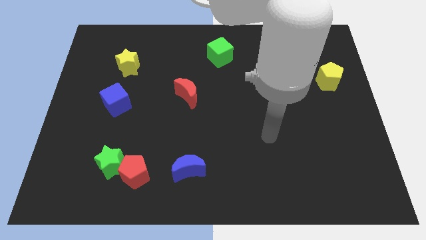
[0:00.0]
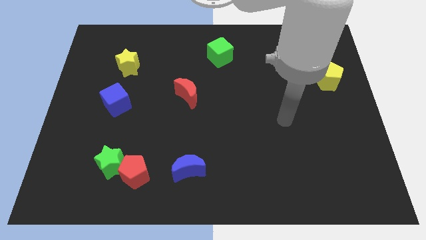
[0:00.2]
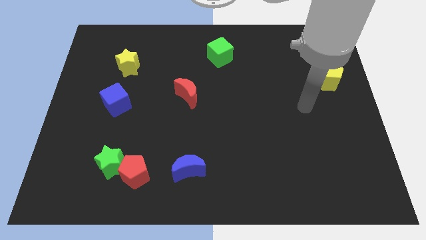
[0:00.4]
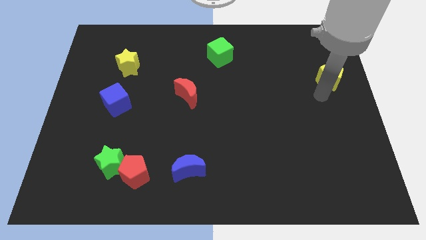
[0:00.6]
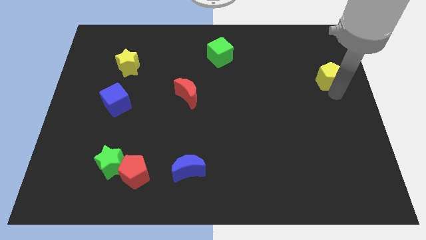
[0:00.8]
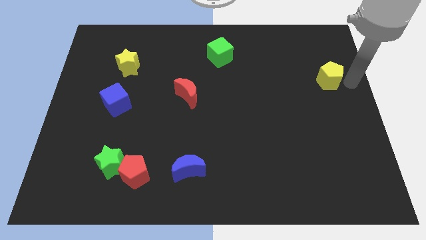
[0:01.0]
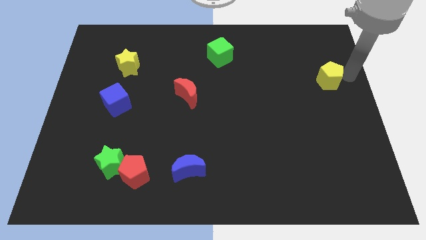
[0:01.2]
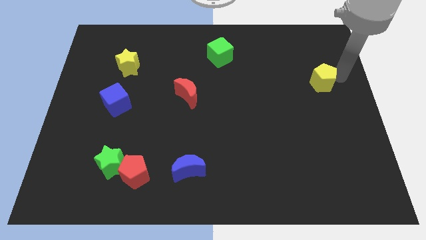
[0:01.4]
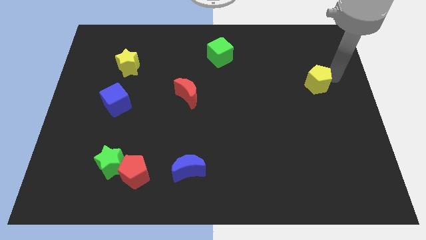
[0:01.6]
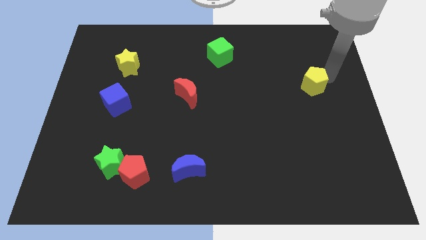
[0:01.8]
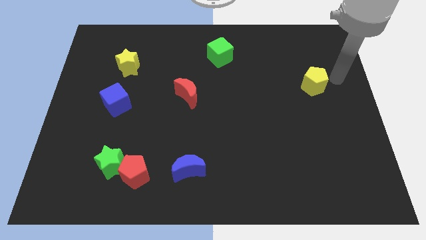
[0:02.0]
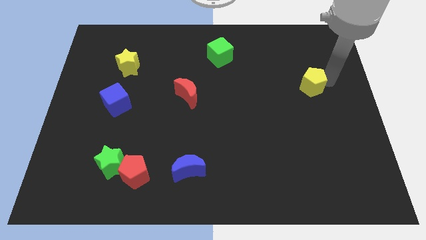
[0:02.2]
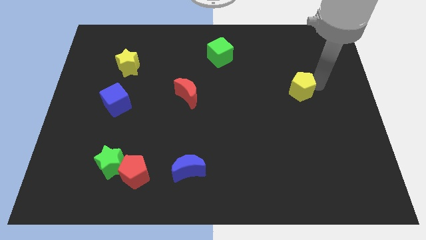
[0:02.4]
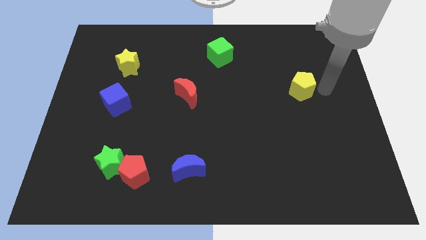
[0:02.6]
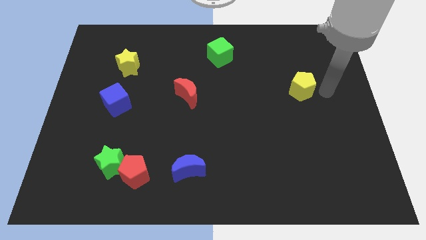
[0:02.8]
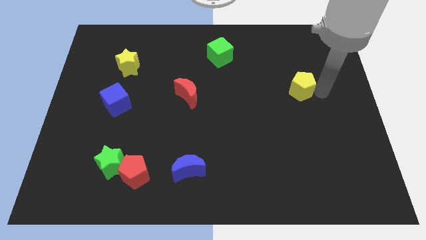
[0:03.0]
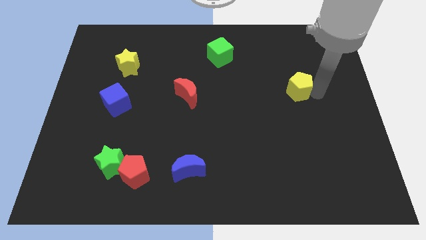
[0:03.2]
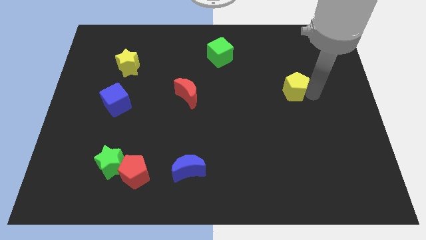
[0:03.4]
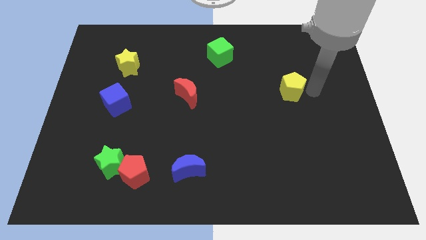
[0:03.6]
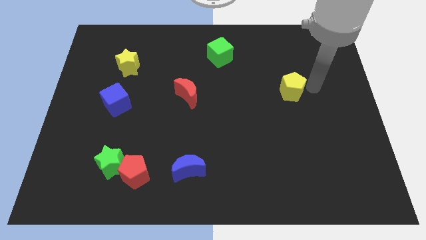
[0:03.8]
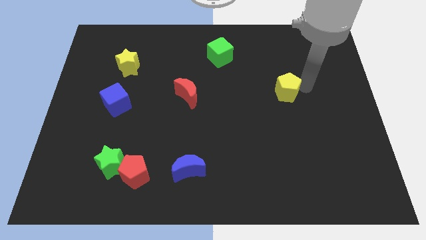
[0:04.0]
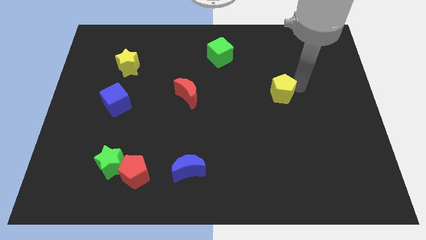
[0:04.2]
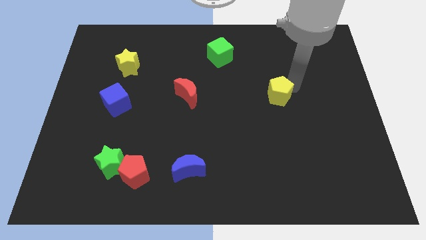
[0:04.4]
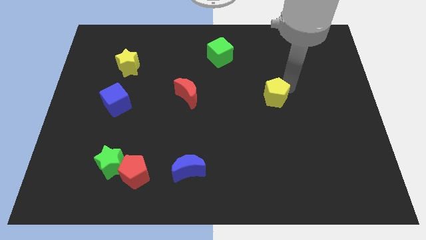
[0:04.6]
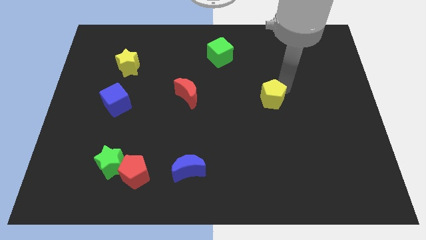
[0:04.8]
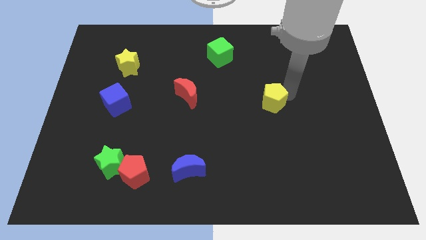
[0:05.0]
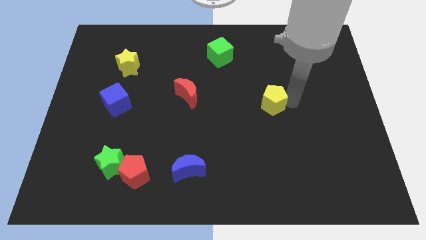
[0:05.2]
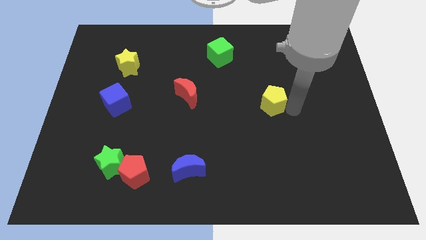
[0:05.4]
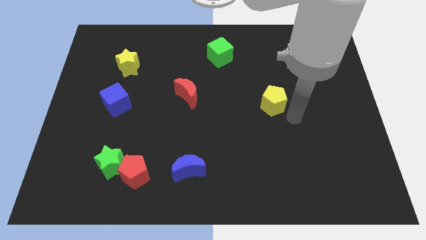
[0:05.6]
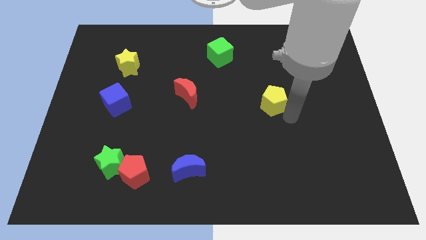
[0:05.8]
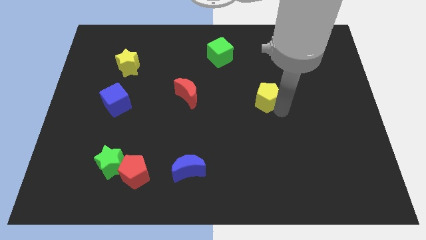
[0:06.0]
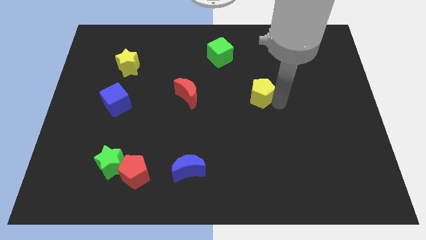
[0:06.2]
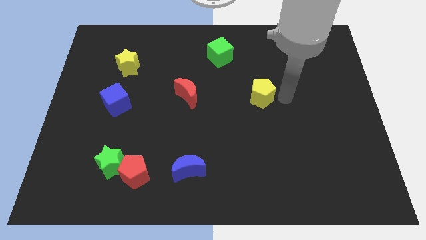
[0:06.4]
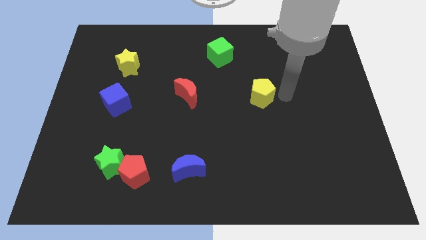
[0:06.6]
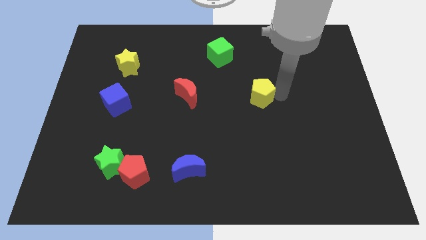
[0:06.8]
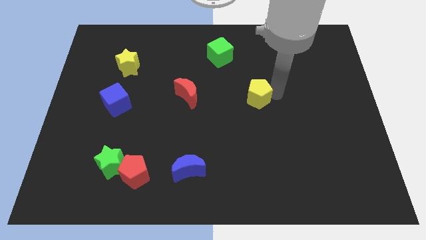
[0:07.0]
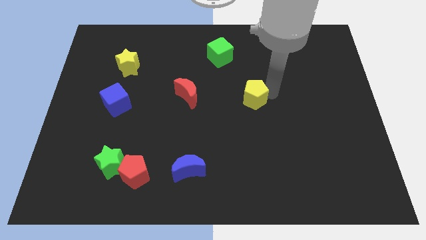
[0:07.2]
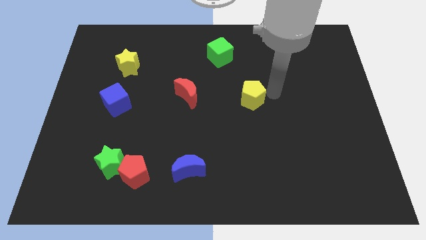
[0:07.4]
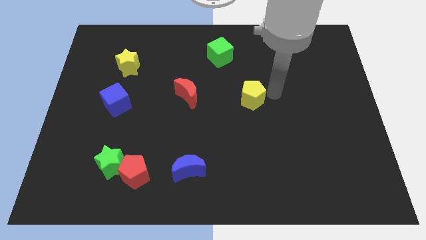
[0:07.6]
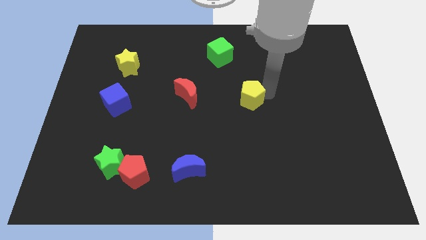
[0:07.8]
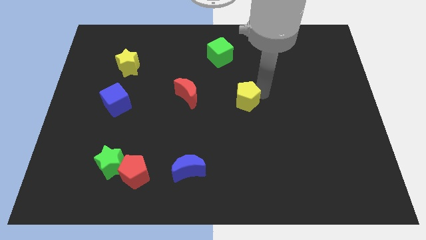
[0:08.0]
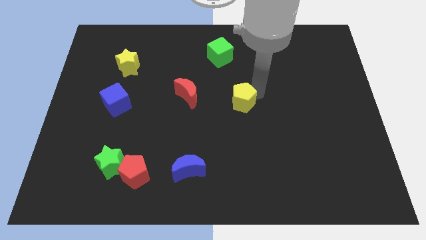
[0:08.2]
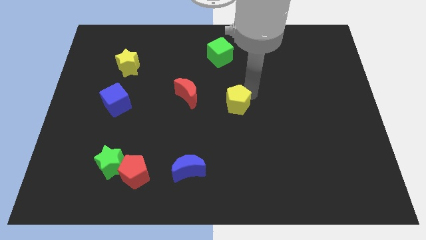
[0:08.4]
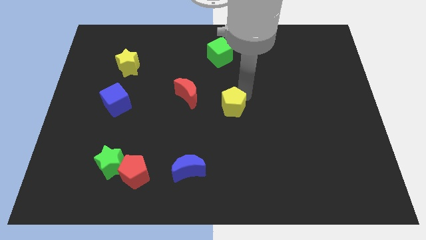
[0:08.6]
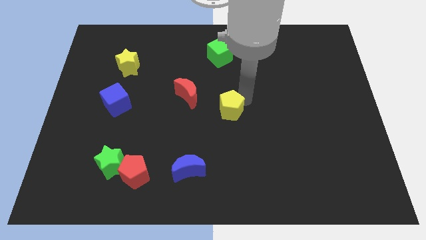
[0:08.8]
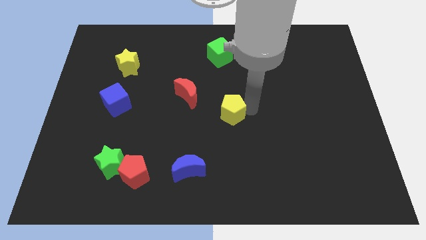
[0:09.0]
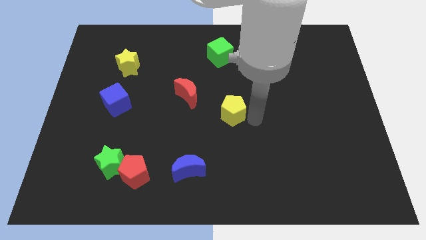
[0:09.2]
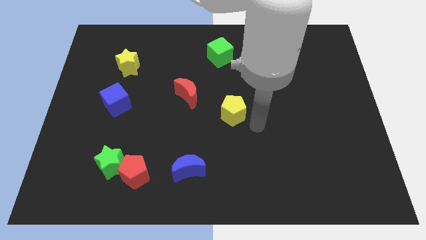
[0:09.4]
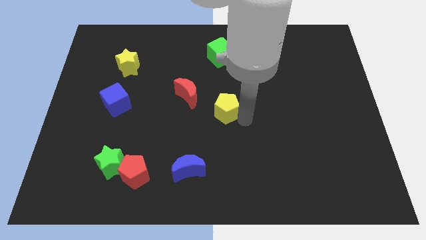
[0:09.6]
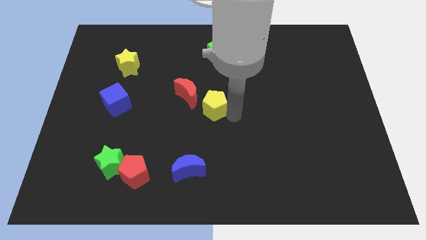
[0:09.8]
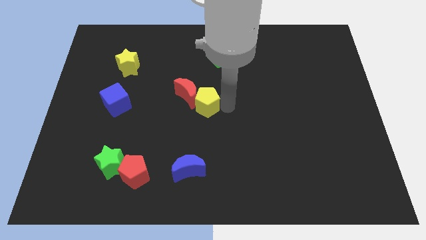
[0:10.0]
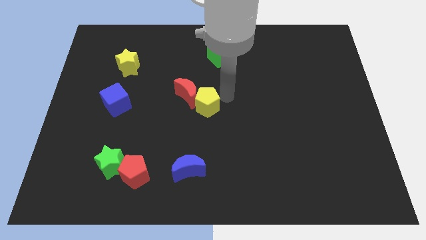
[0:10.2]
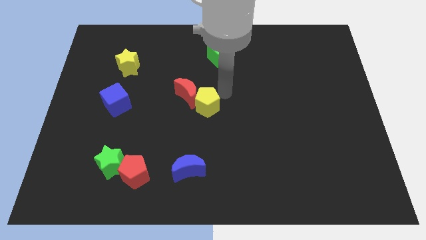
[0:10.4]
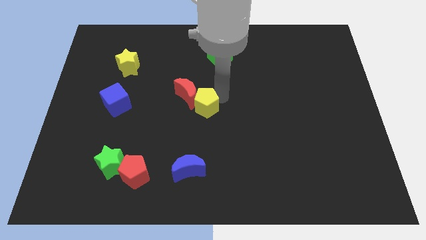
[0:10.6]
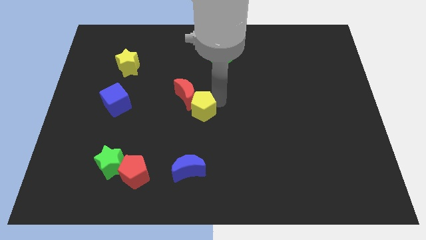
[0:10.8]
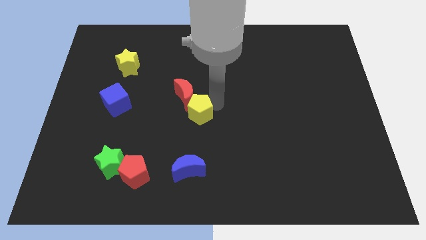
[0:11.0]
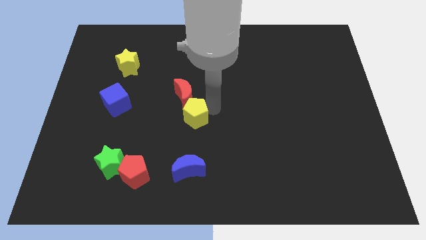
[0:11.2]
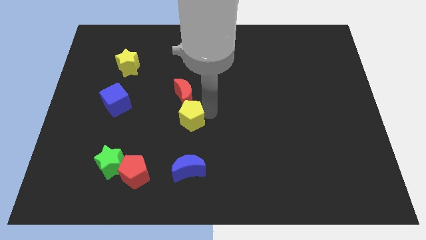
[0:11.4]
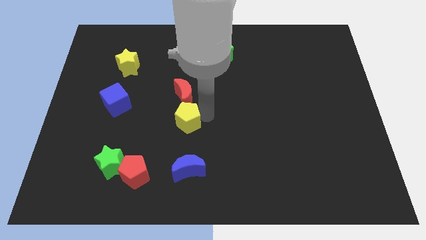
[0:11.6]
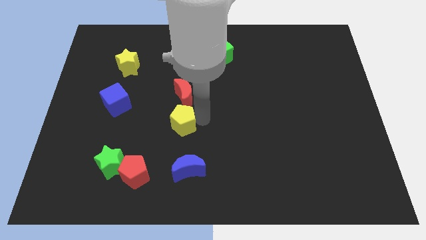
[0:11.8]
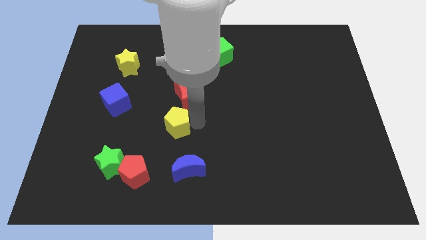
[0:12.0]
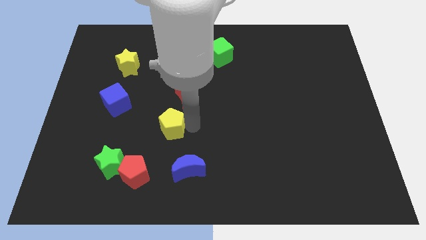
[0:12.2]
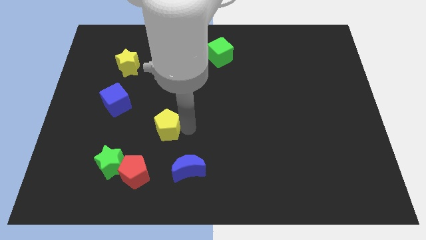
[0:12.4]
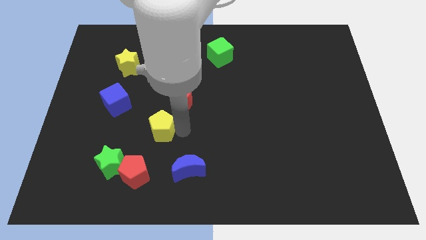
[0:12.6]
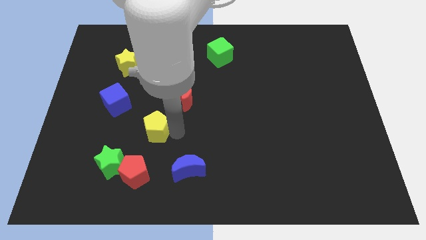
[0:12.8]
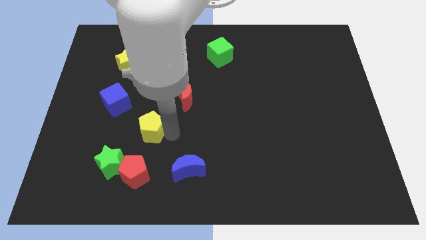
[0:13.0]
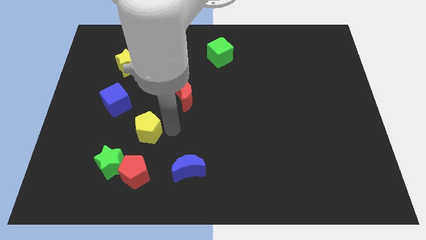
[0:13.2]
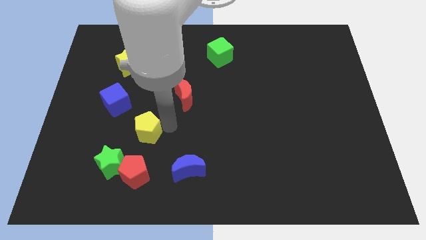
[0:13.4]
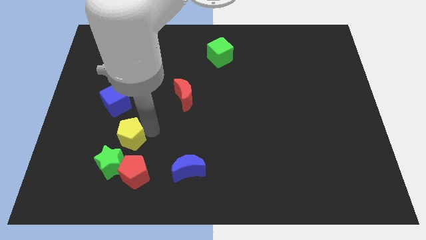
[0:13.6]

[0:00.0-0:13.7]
put the yellow pentagon to the bottom of the blue cube
